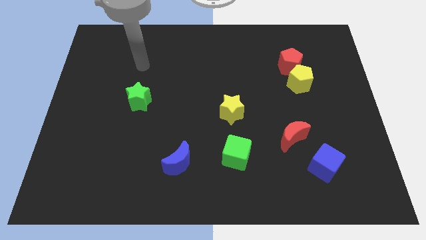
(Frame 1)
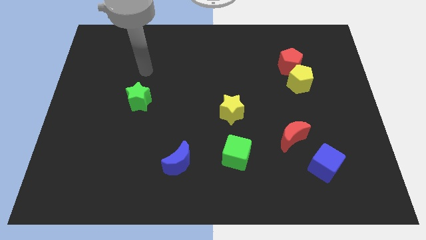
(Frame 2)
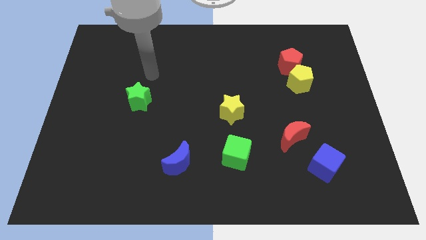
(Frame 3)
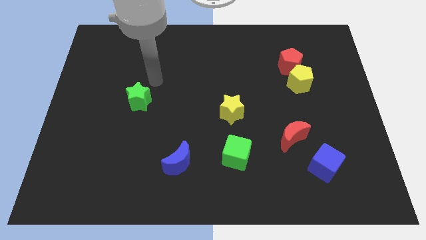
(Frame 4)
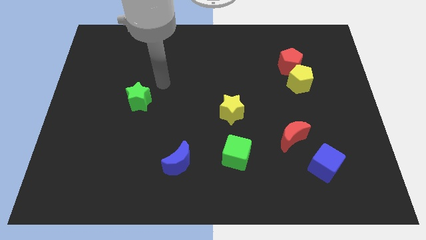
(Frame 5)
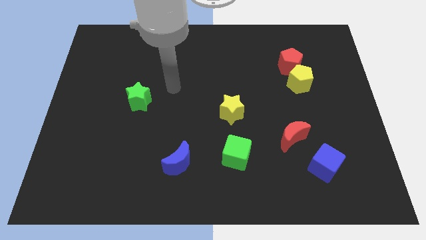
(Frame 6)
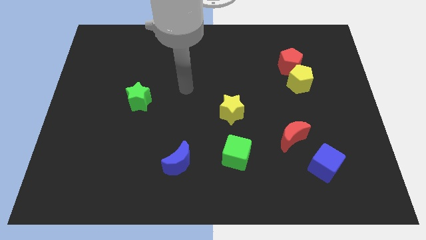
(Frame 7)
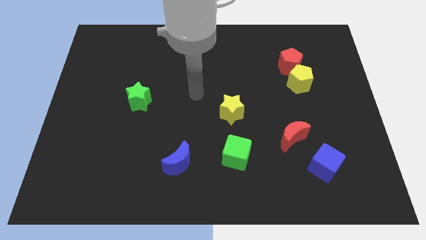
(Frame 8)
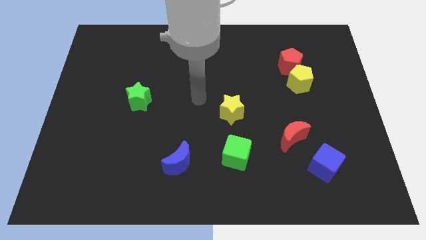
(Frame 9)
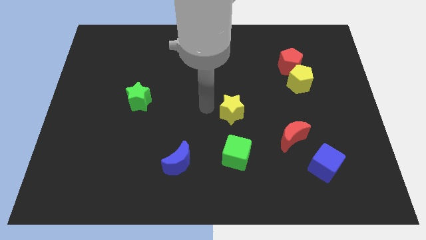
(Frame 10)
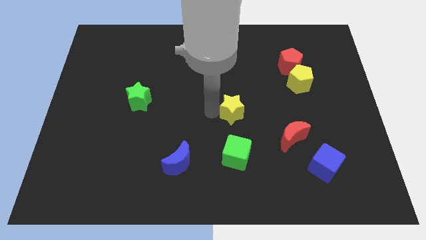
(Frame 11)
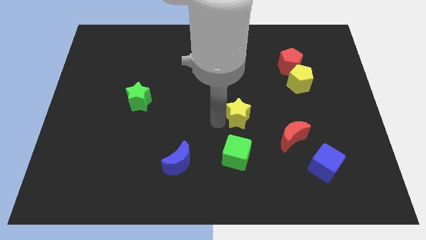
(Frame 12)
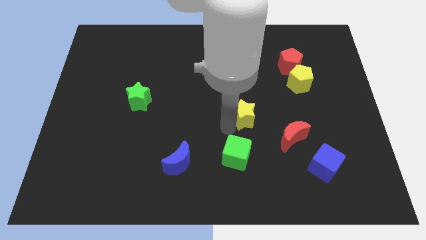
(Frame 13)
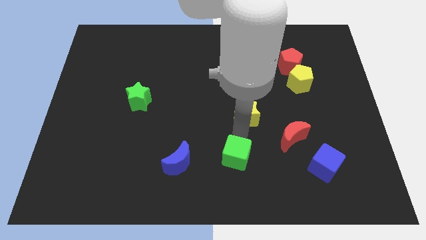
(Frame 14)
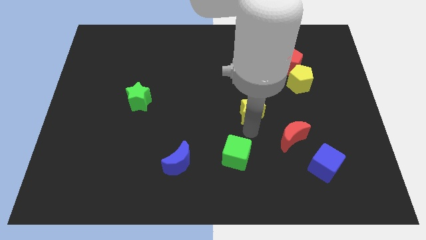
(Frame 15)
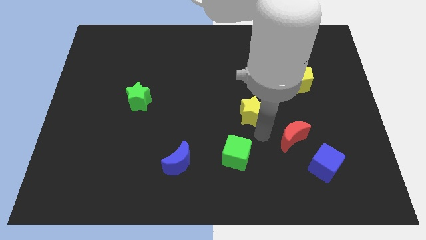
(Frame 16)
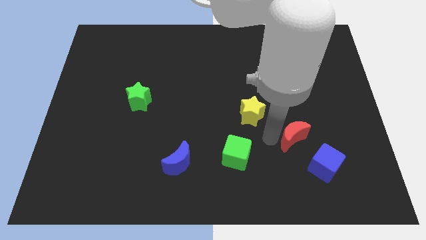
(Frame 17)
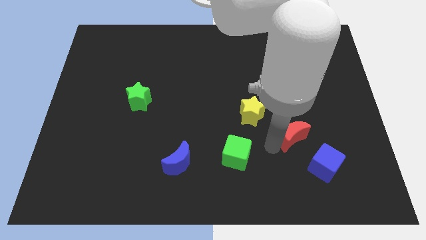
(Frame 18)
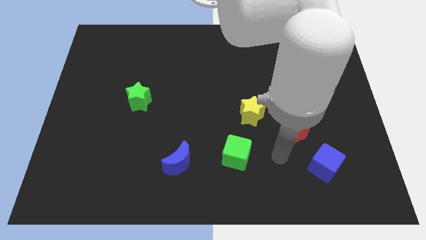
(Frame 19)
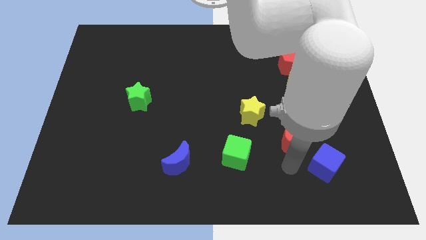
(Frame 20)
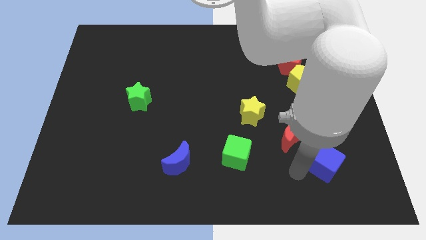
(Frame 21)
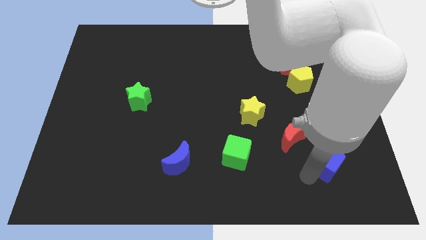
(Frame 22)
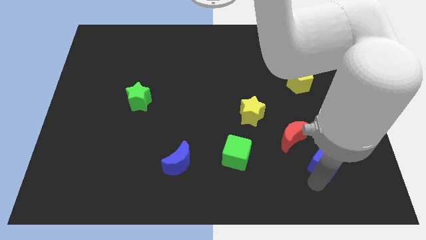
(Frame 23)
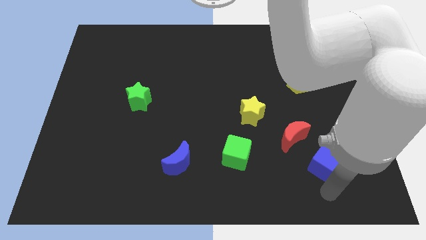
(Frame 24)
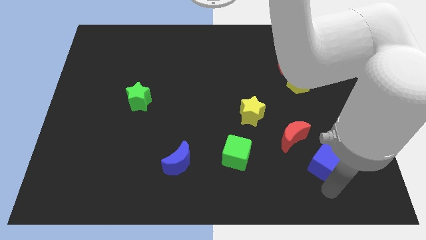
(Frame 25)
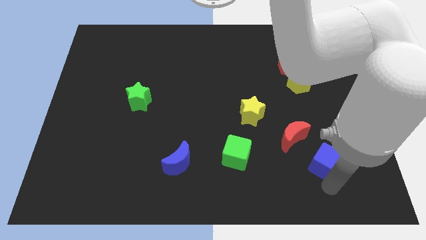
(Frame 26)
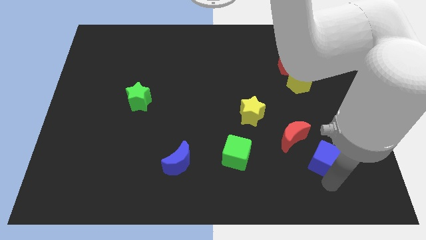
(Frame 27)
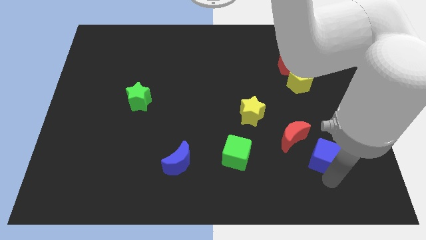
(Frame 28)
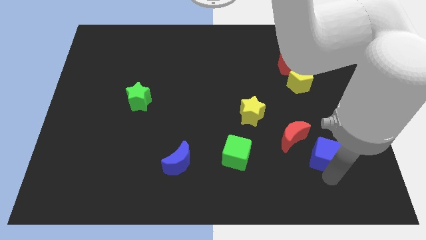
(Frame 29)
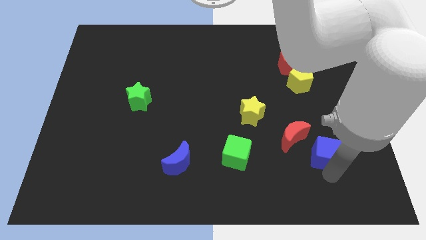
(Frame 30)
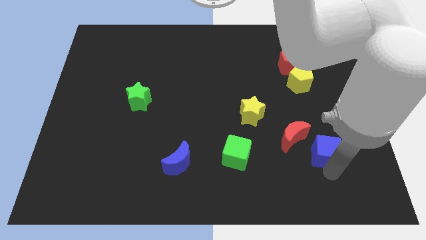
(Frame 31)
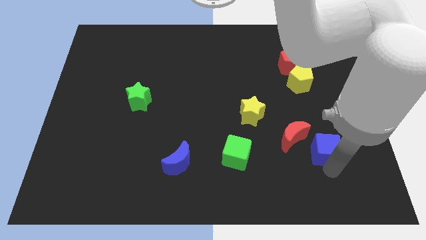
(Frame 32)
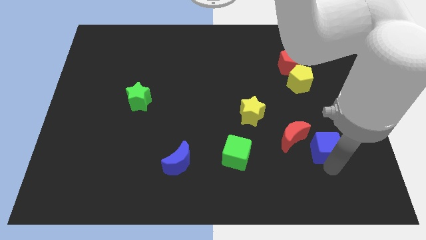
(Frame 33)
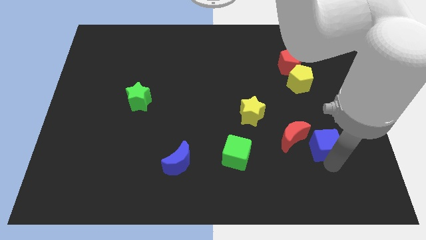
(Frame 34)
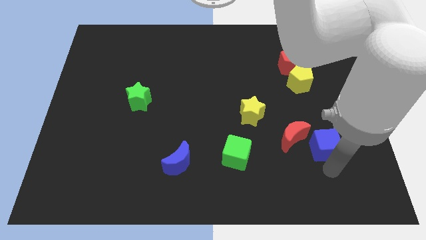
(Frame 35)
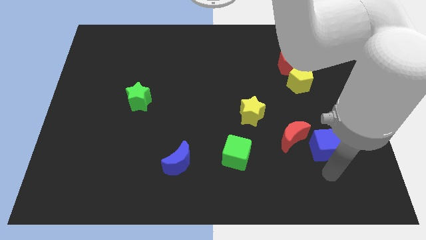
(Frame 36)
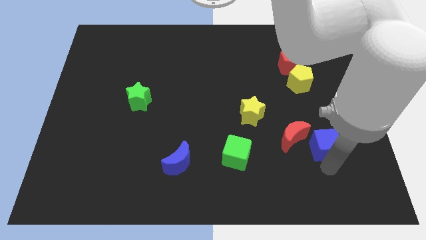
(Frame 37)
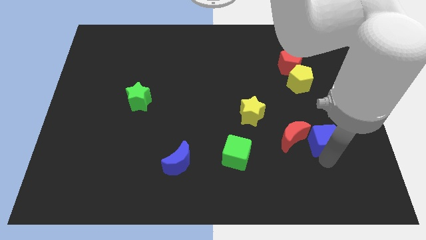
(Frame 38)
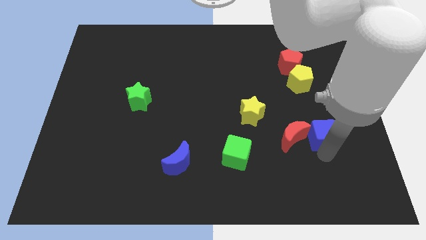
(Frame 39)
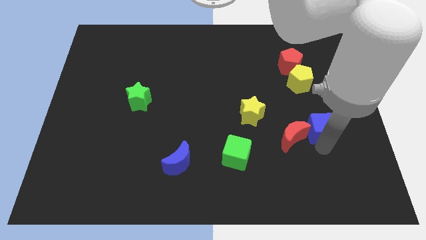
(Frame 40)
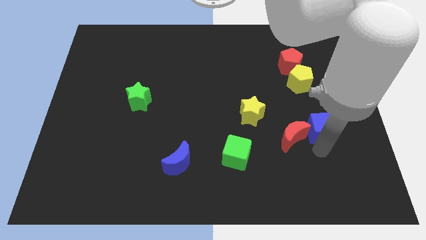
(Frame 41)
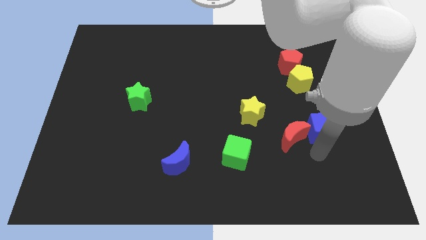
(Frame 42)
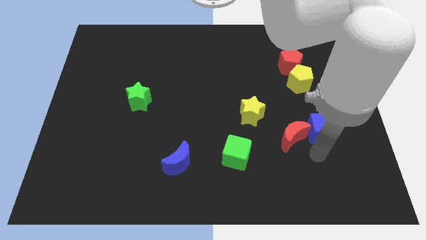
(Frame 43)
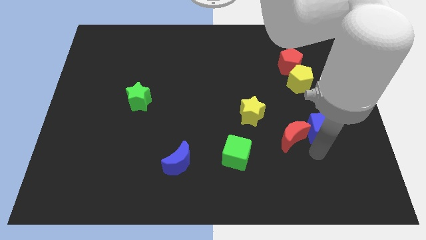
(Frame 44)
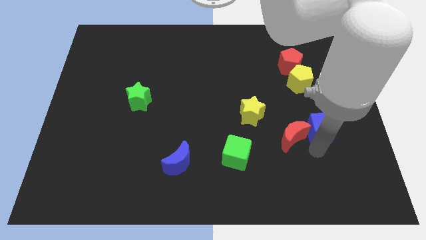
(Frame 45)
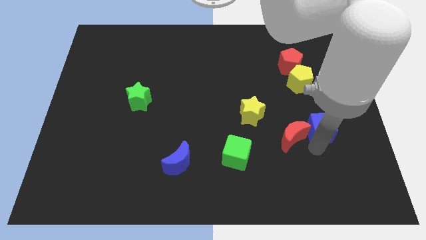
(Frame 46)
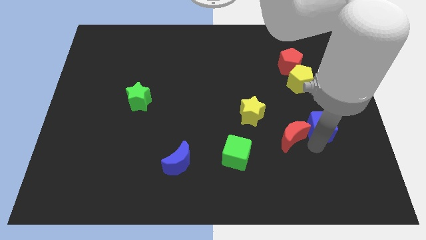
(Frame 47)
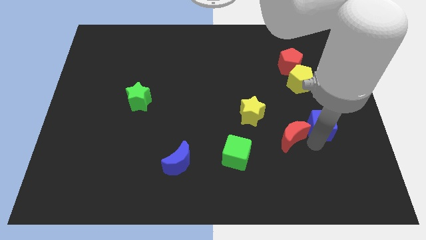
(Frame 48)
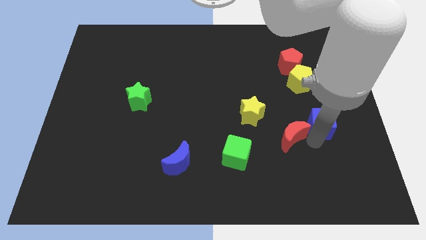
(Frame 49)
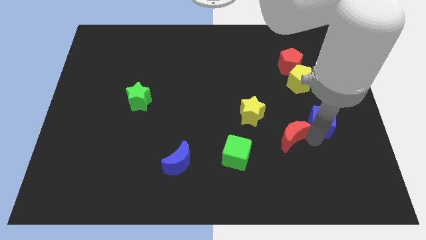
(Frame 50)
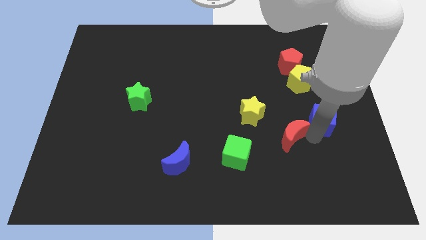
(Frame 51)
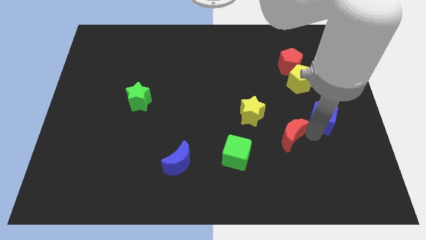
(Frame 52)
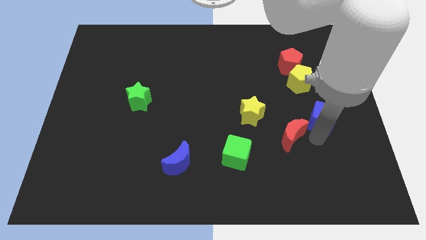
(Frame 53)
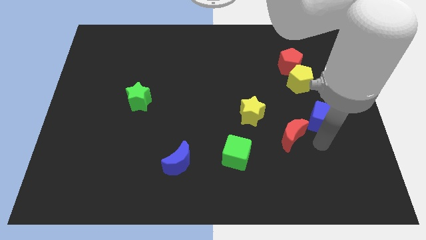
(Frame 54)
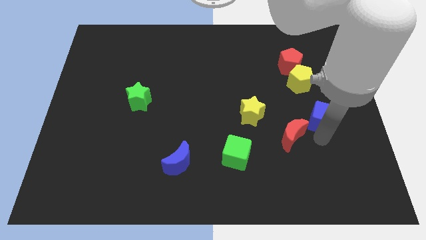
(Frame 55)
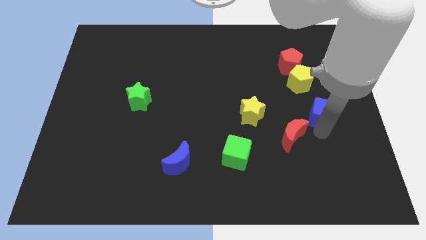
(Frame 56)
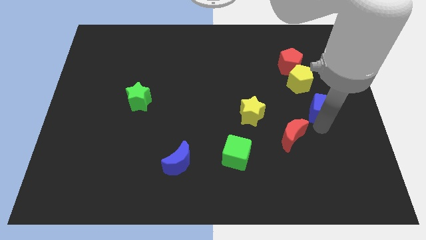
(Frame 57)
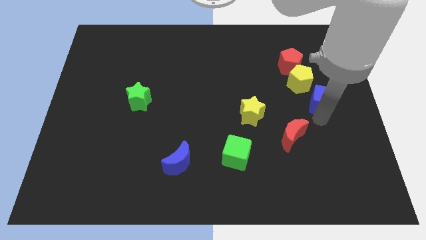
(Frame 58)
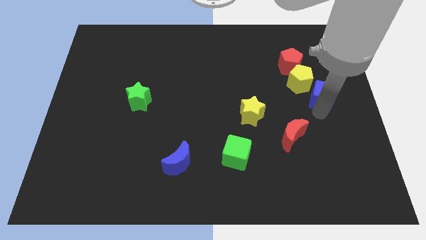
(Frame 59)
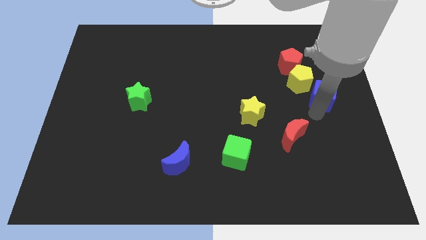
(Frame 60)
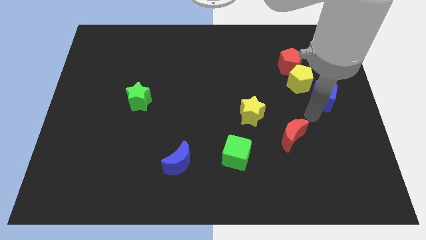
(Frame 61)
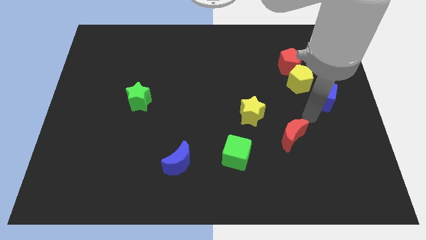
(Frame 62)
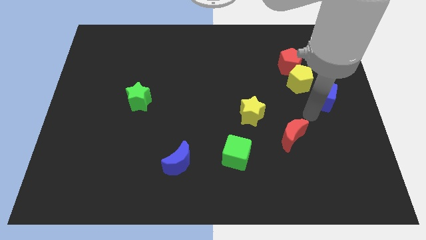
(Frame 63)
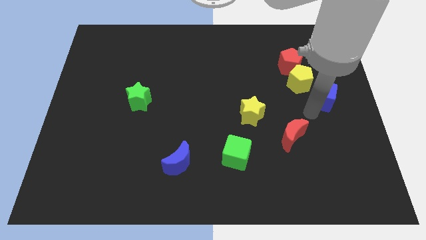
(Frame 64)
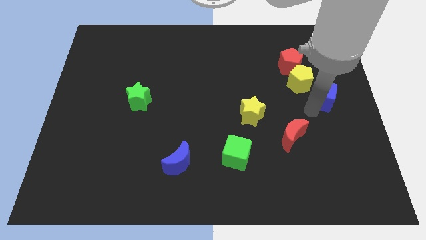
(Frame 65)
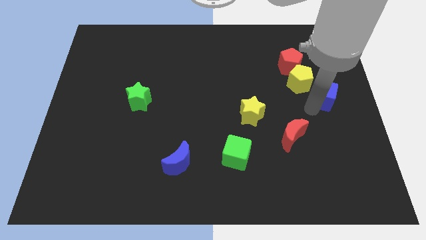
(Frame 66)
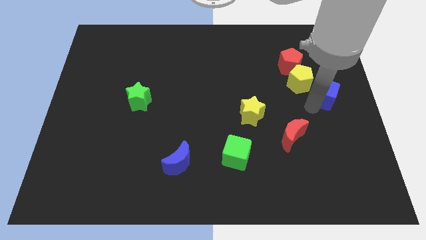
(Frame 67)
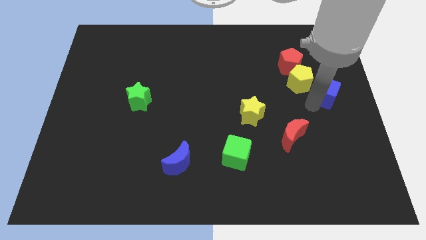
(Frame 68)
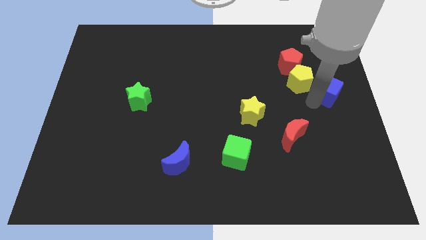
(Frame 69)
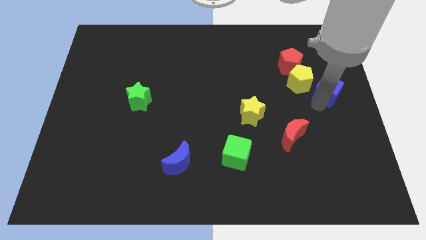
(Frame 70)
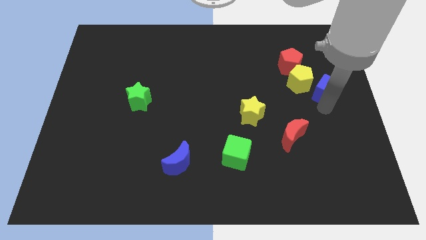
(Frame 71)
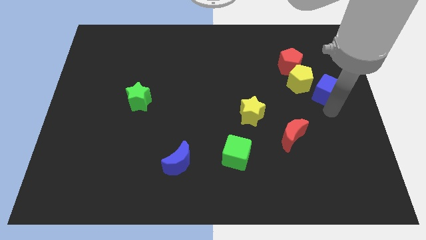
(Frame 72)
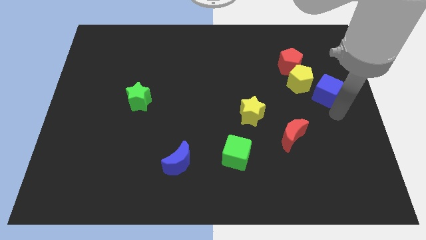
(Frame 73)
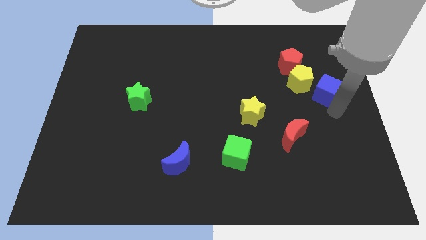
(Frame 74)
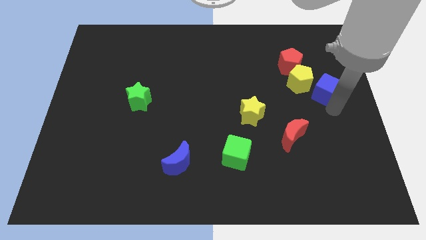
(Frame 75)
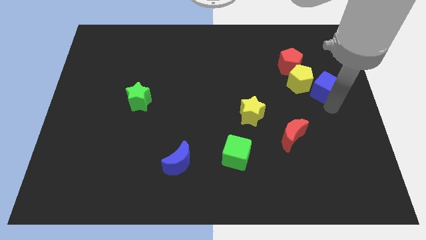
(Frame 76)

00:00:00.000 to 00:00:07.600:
push the blue cube upwards
